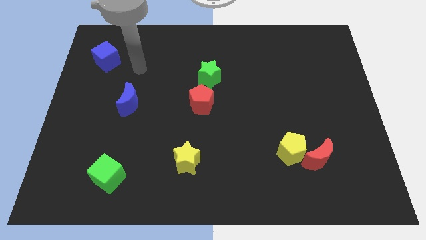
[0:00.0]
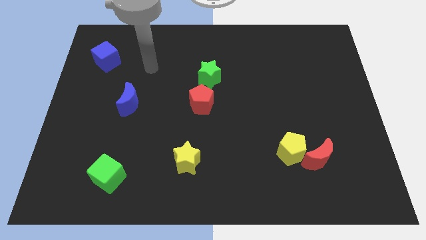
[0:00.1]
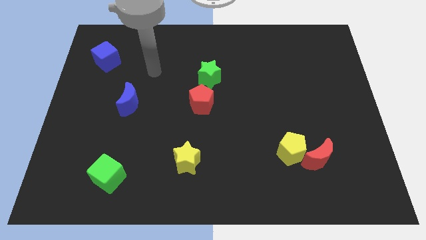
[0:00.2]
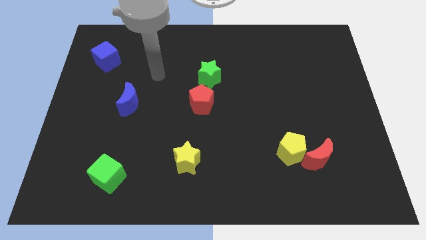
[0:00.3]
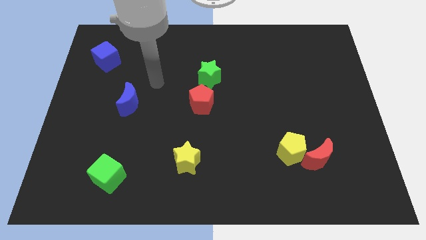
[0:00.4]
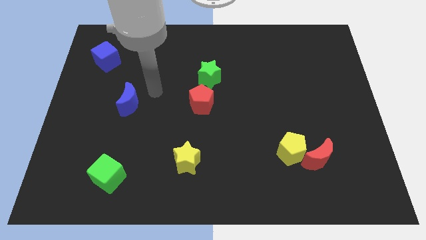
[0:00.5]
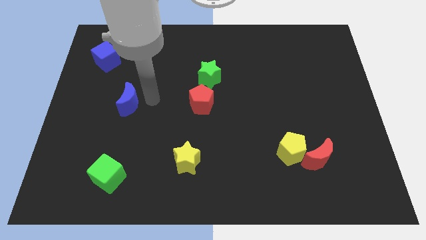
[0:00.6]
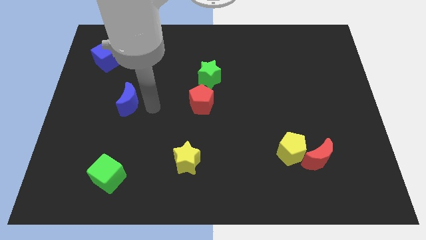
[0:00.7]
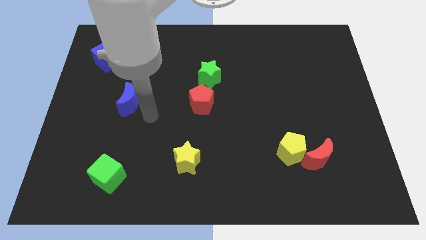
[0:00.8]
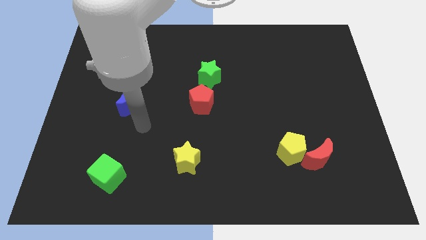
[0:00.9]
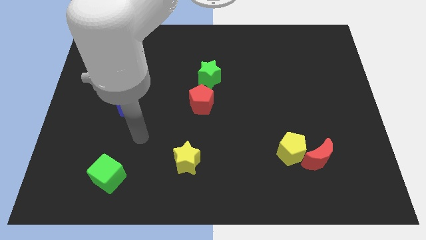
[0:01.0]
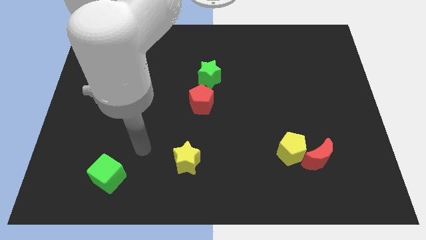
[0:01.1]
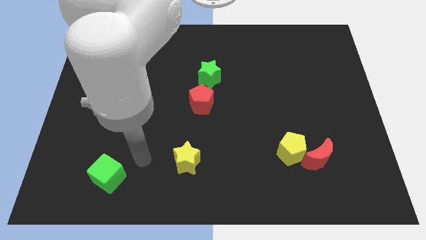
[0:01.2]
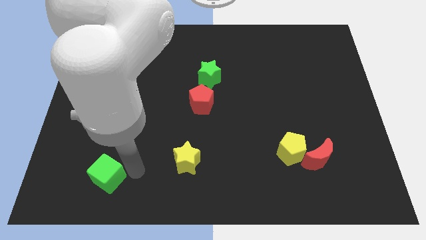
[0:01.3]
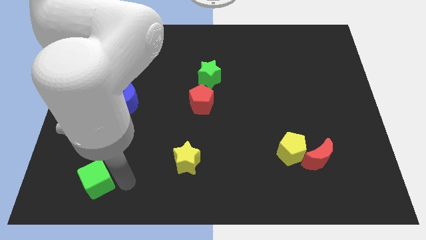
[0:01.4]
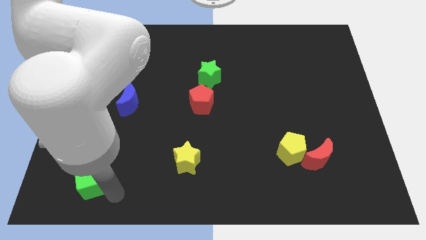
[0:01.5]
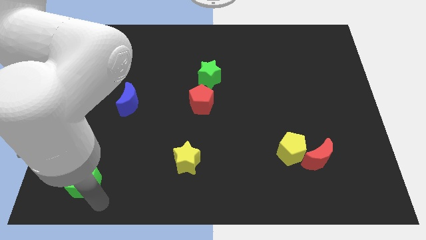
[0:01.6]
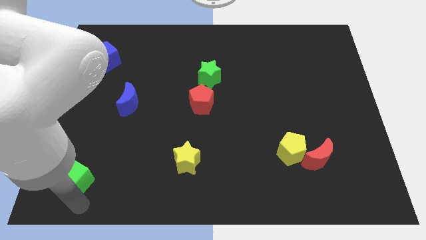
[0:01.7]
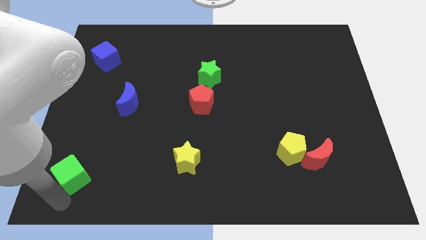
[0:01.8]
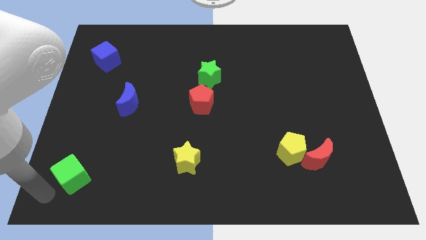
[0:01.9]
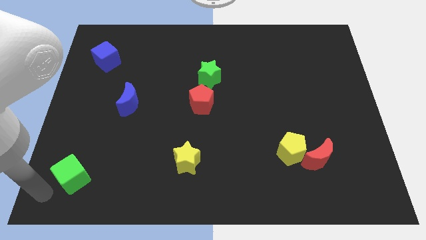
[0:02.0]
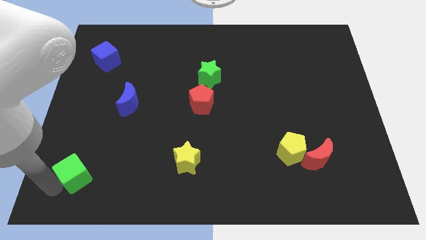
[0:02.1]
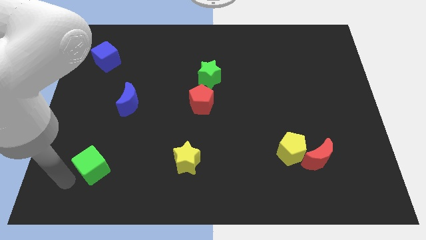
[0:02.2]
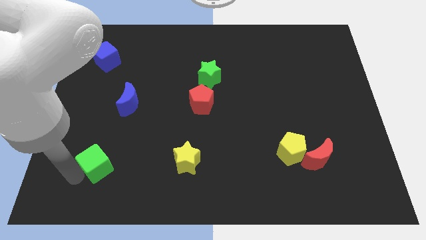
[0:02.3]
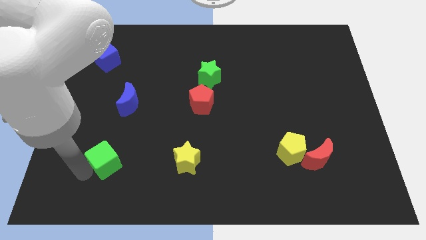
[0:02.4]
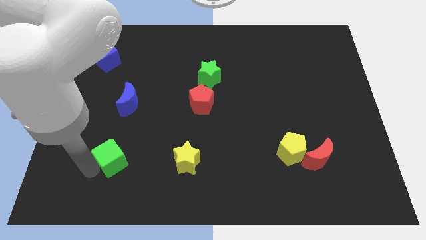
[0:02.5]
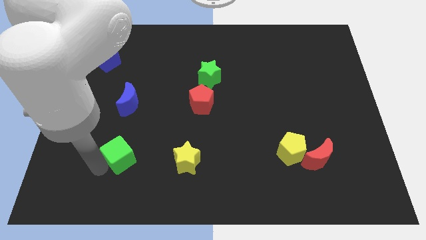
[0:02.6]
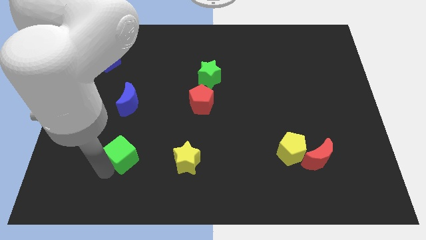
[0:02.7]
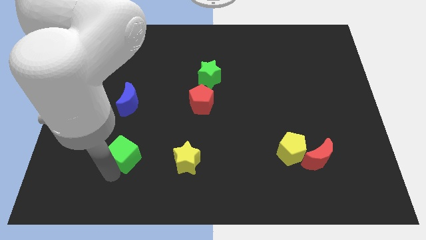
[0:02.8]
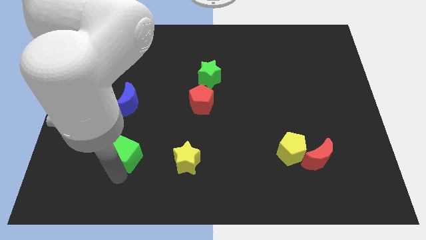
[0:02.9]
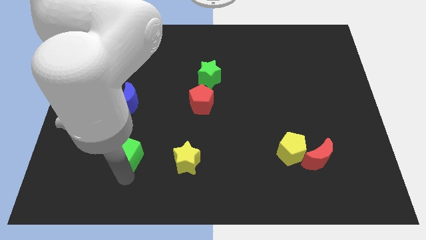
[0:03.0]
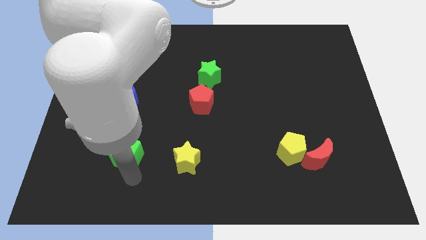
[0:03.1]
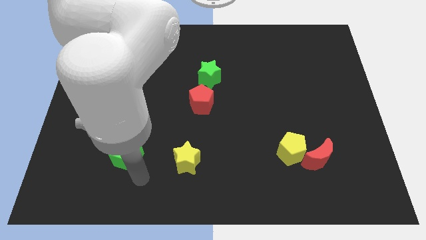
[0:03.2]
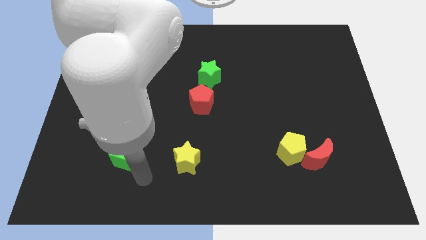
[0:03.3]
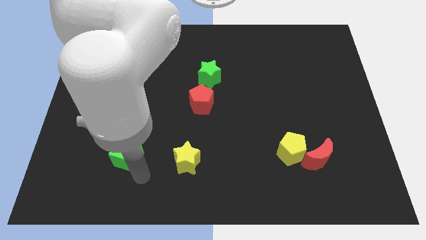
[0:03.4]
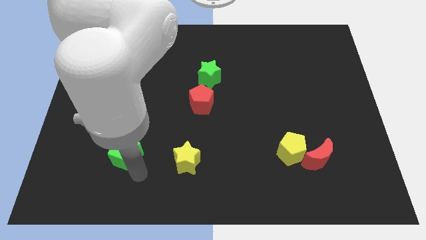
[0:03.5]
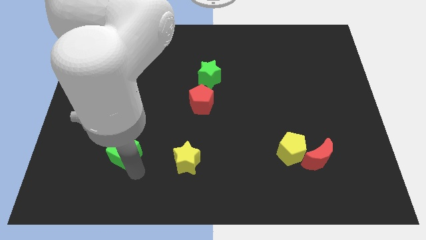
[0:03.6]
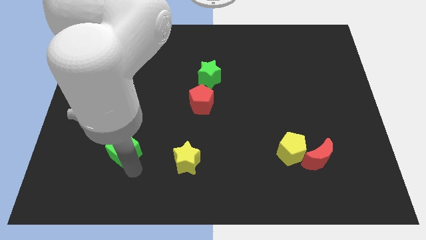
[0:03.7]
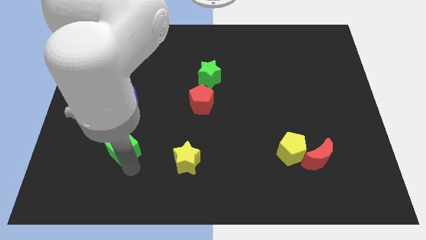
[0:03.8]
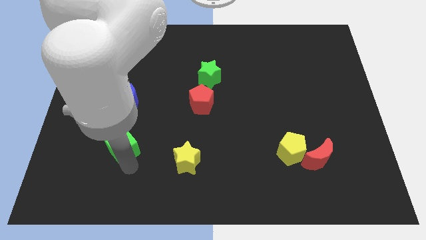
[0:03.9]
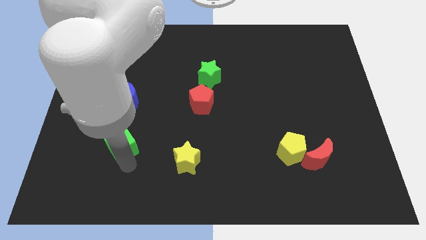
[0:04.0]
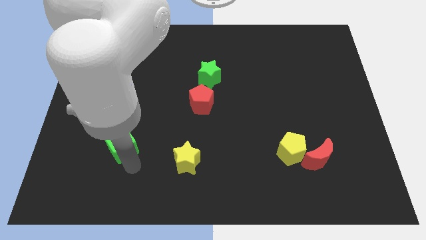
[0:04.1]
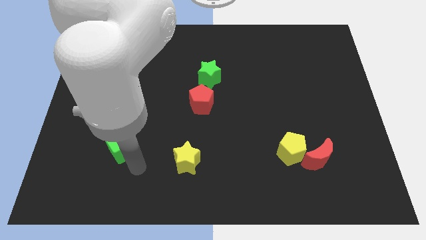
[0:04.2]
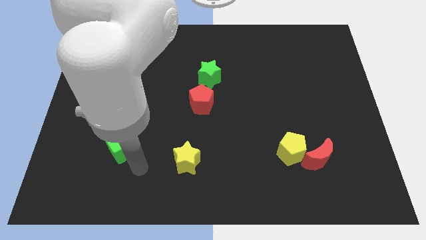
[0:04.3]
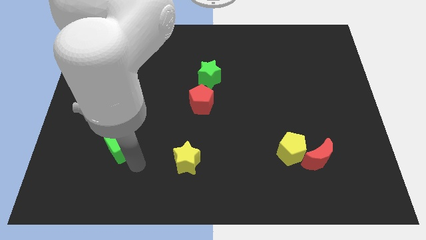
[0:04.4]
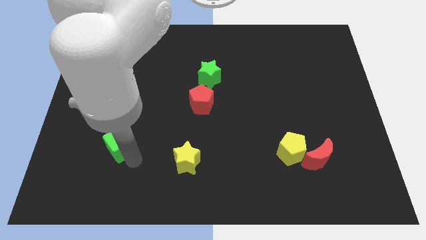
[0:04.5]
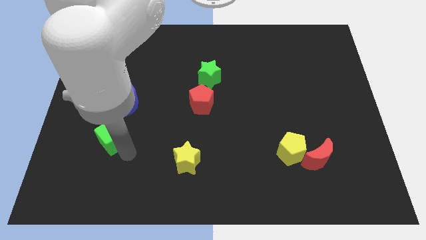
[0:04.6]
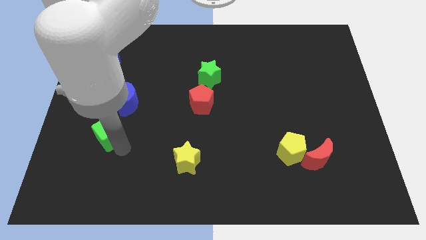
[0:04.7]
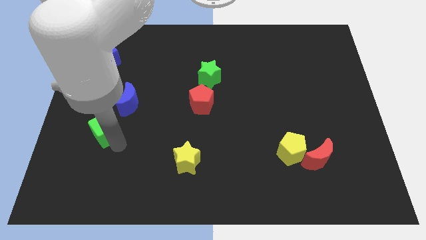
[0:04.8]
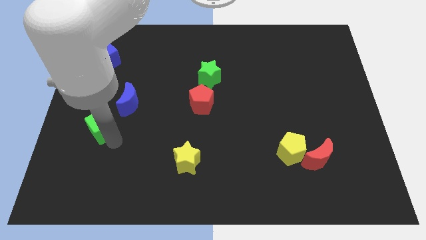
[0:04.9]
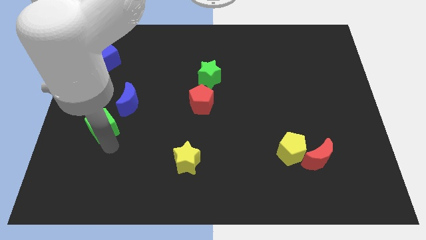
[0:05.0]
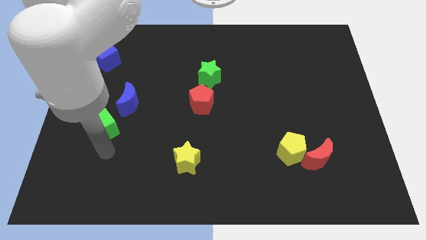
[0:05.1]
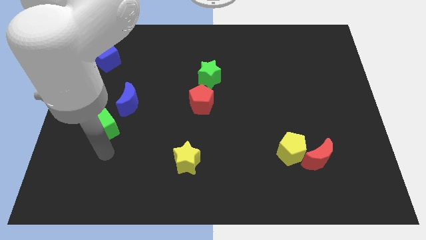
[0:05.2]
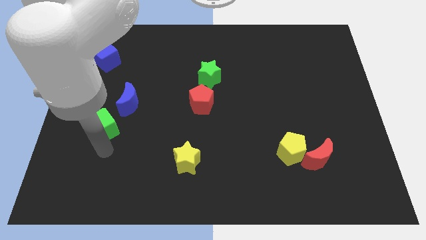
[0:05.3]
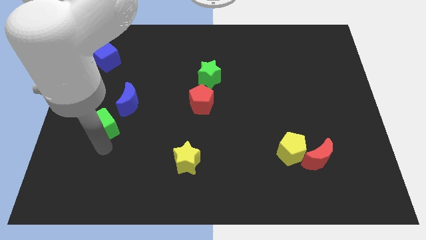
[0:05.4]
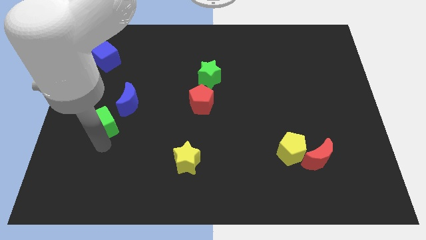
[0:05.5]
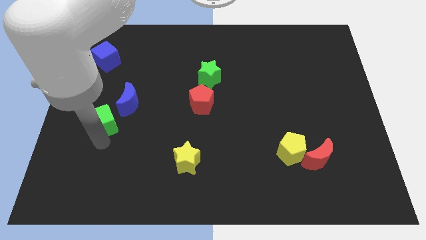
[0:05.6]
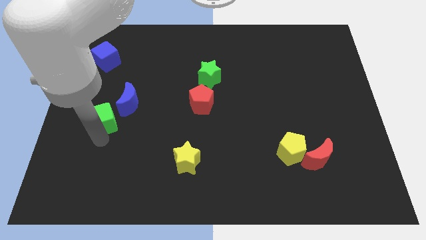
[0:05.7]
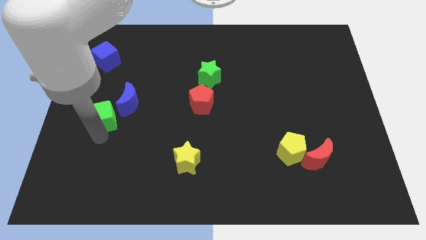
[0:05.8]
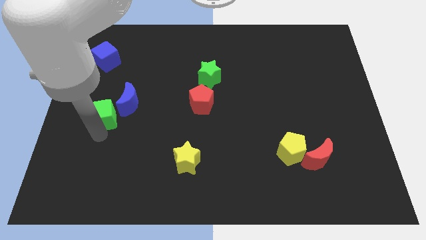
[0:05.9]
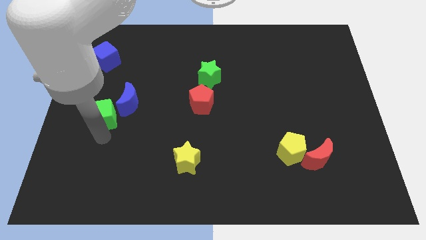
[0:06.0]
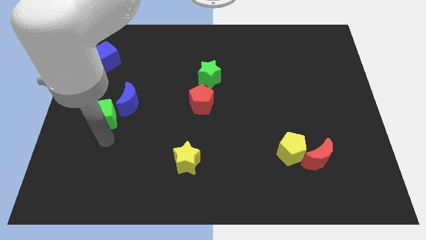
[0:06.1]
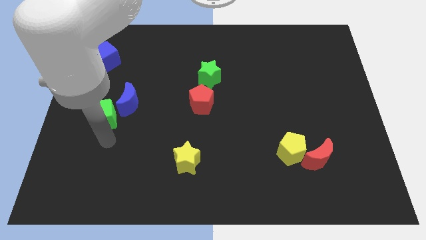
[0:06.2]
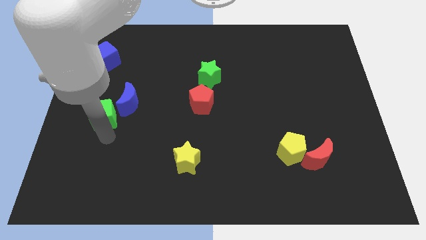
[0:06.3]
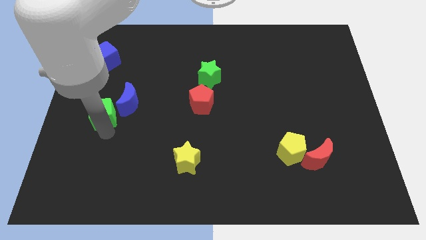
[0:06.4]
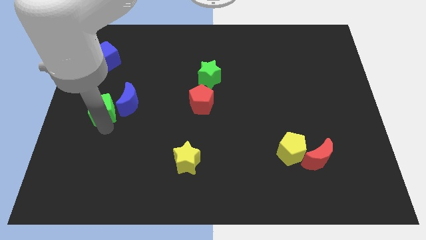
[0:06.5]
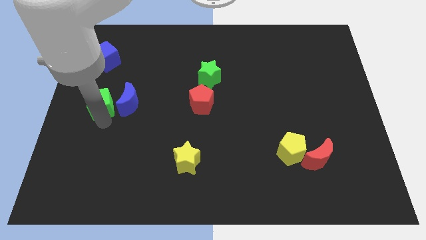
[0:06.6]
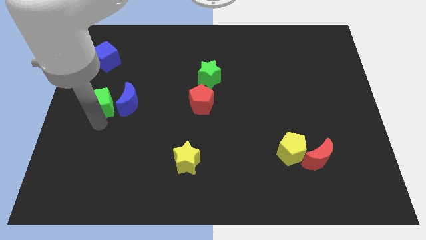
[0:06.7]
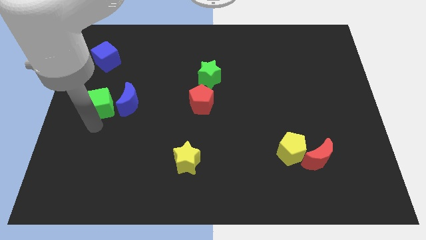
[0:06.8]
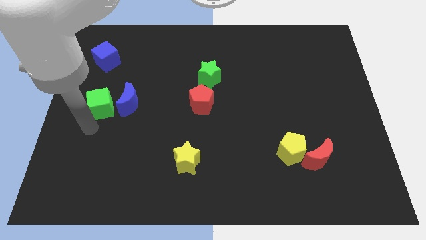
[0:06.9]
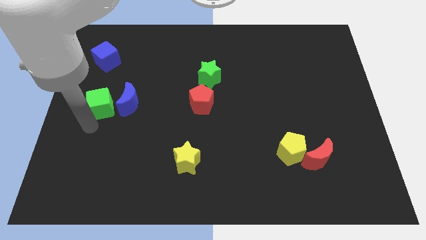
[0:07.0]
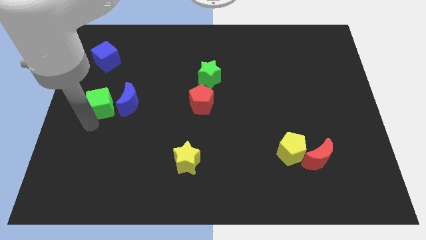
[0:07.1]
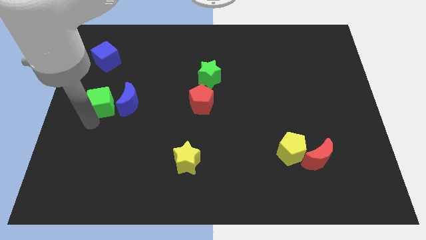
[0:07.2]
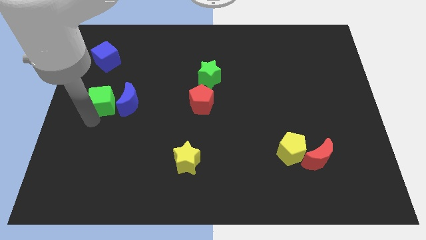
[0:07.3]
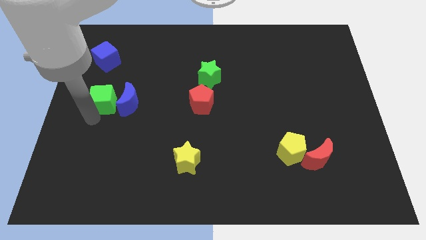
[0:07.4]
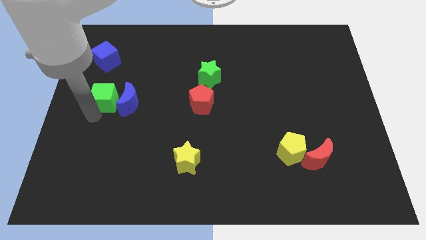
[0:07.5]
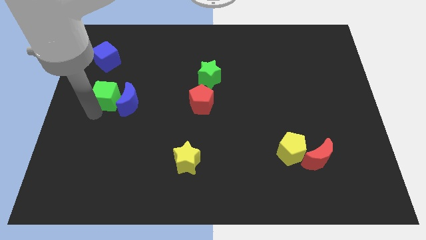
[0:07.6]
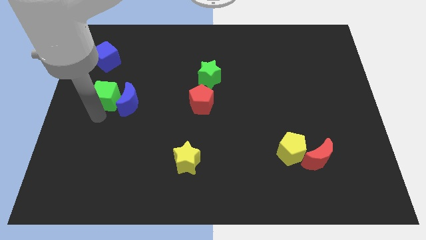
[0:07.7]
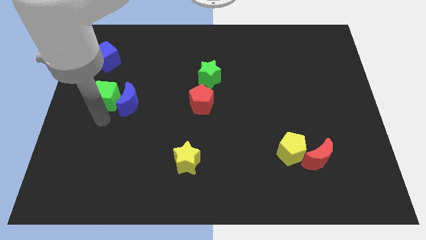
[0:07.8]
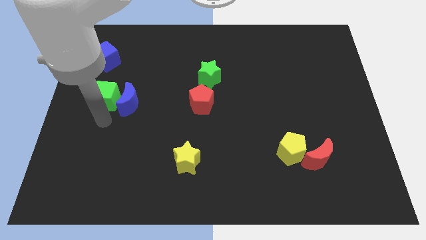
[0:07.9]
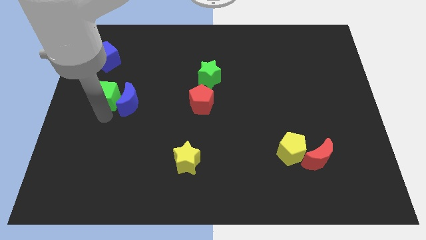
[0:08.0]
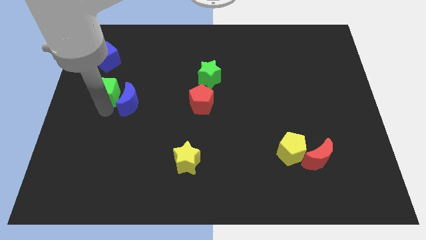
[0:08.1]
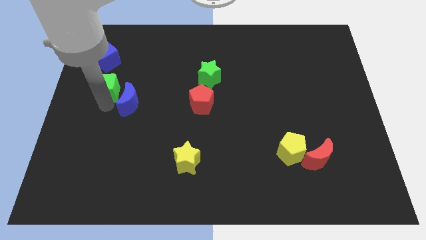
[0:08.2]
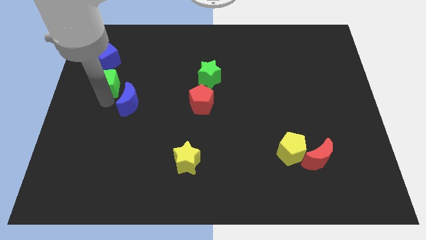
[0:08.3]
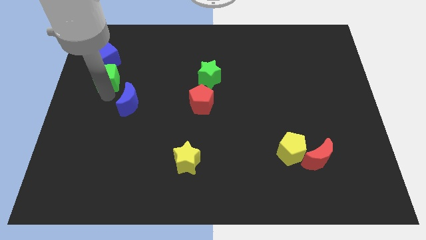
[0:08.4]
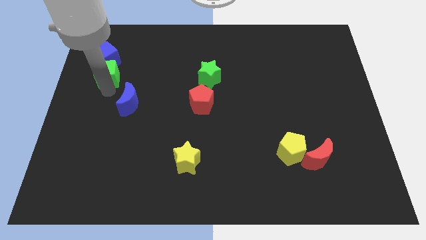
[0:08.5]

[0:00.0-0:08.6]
move the green cube next to the blue cube
